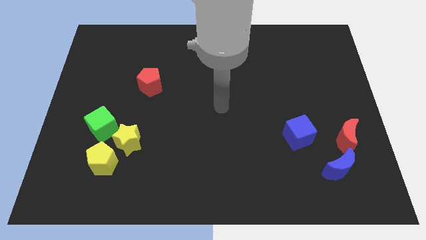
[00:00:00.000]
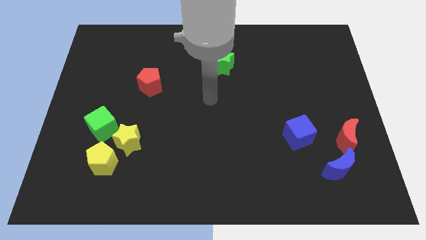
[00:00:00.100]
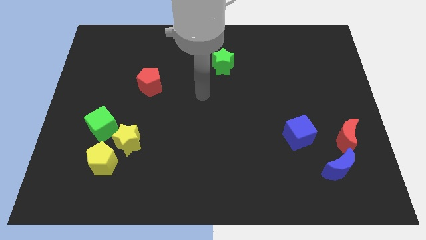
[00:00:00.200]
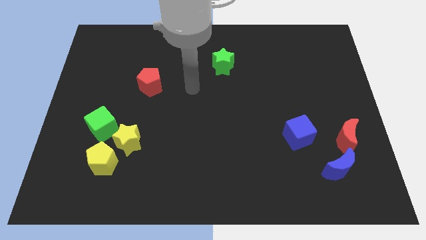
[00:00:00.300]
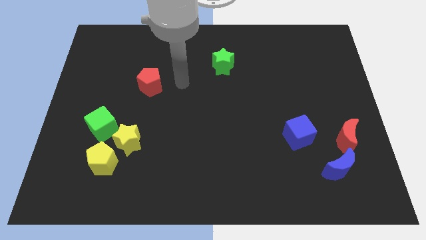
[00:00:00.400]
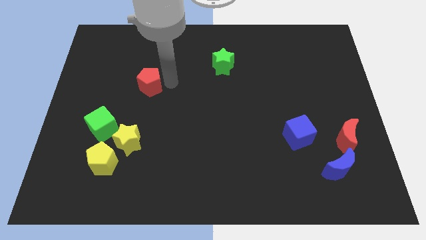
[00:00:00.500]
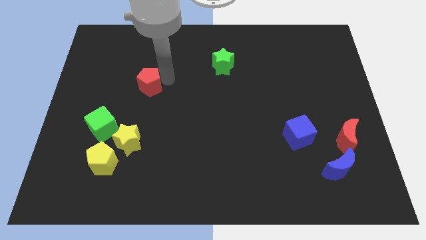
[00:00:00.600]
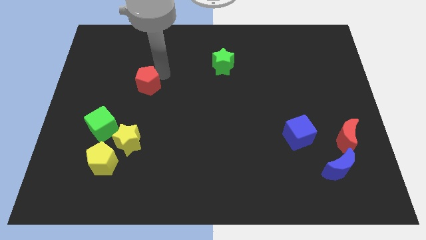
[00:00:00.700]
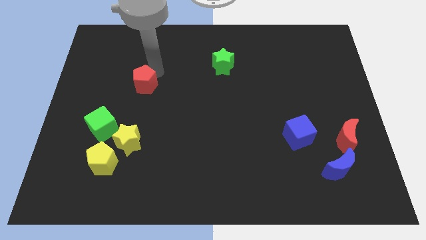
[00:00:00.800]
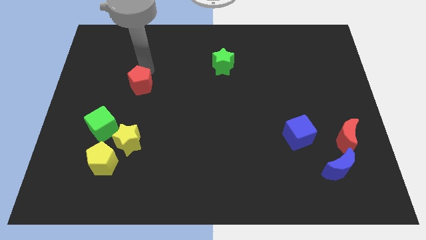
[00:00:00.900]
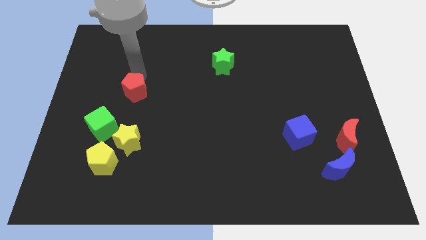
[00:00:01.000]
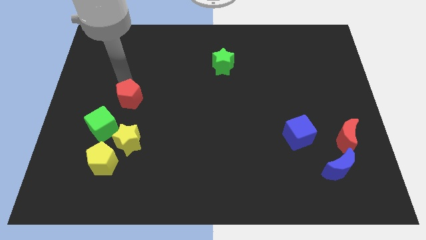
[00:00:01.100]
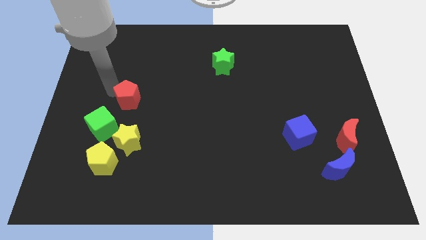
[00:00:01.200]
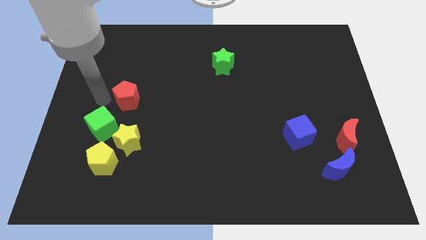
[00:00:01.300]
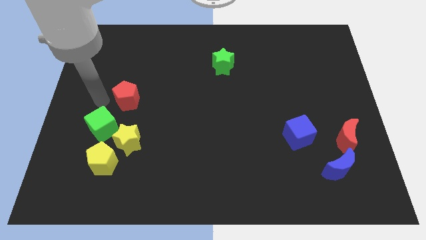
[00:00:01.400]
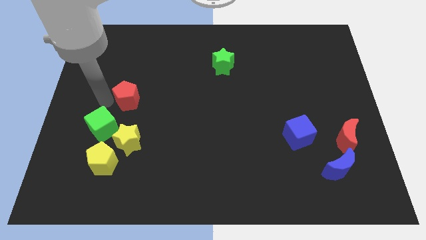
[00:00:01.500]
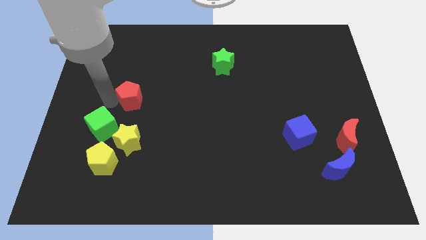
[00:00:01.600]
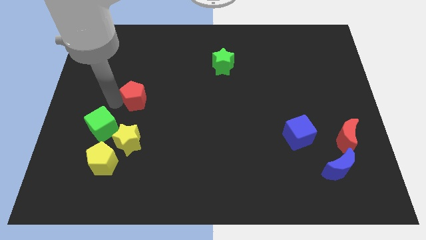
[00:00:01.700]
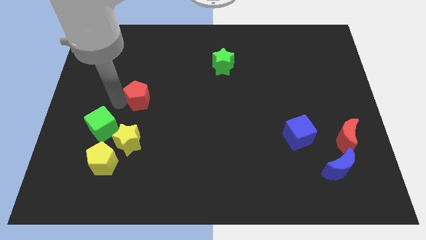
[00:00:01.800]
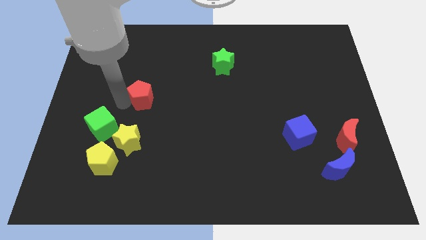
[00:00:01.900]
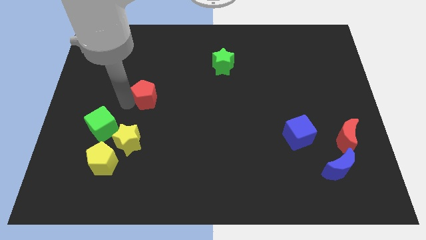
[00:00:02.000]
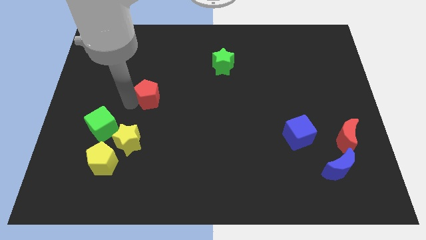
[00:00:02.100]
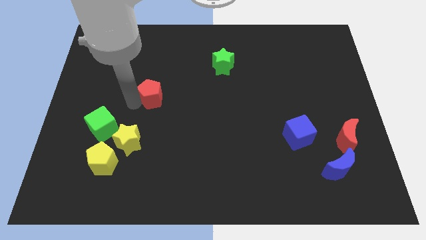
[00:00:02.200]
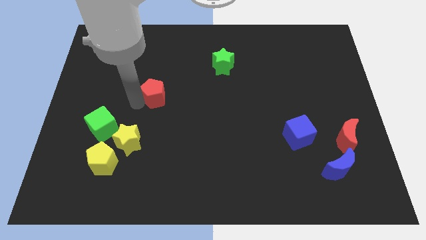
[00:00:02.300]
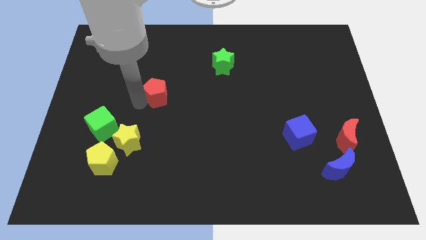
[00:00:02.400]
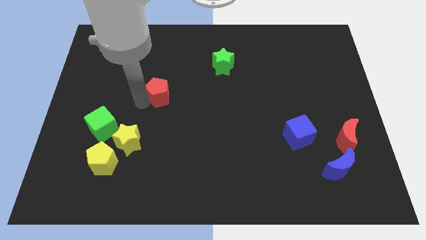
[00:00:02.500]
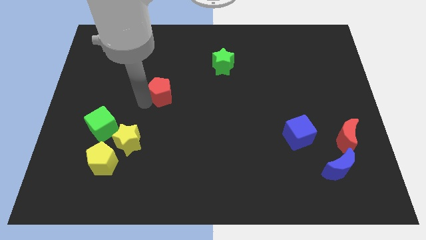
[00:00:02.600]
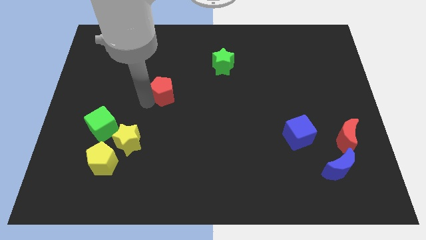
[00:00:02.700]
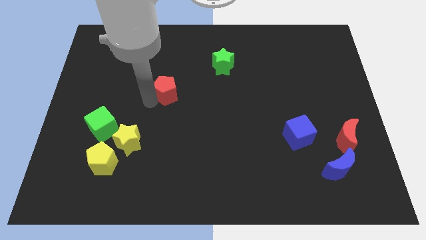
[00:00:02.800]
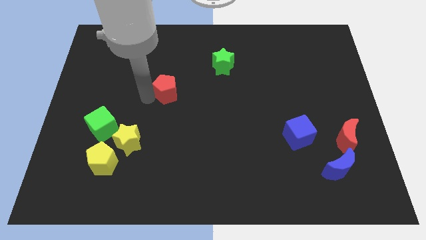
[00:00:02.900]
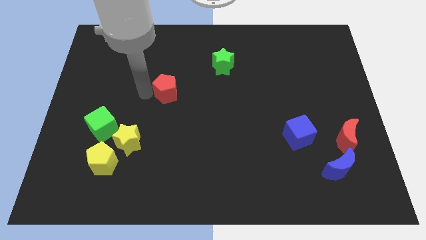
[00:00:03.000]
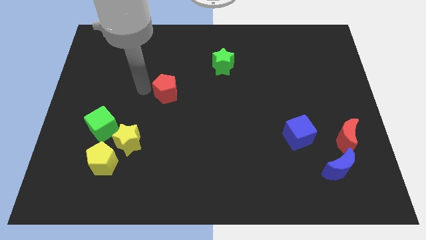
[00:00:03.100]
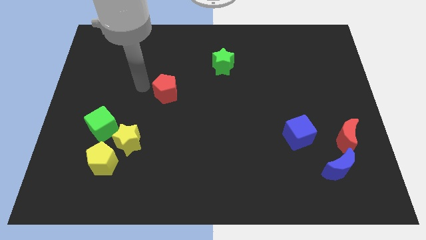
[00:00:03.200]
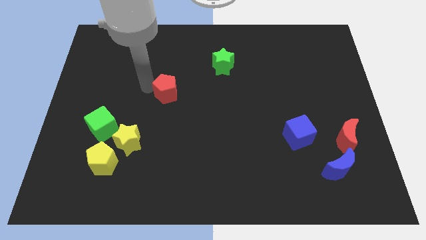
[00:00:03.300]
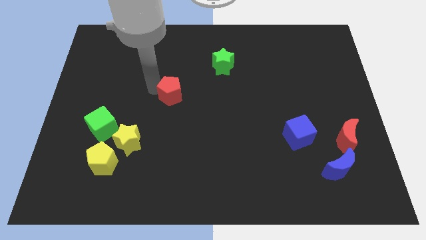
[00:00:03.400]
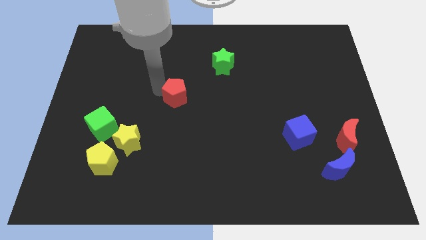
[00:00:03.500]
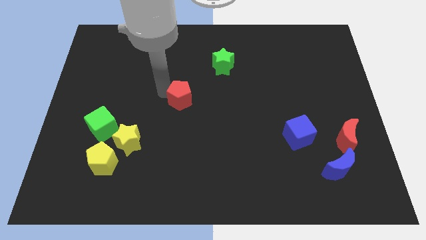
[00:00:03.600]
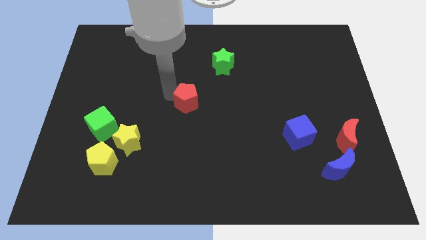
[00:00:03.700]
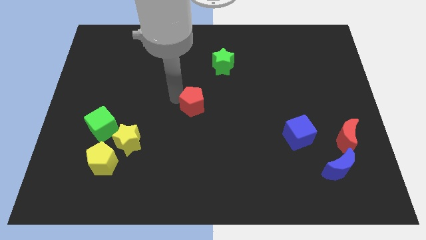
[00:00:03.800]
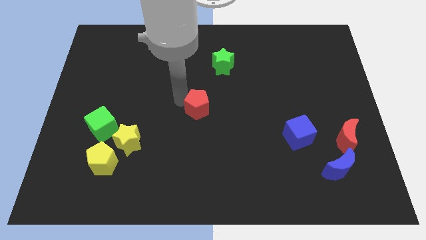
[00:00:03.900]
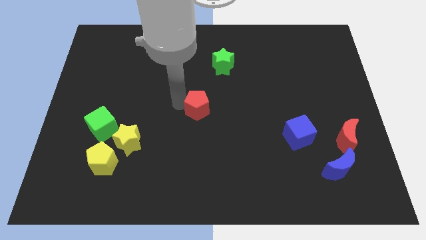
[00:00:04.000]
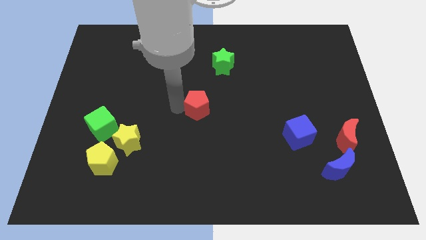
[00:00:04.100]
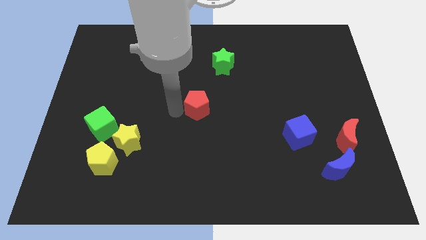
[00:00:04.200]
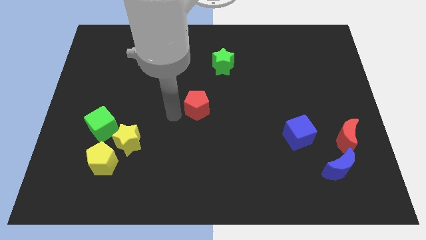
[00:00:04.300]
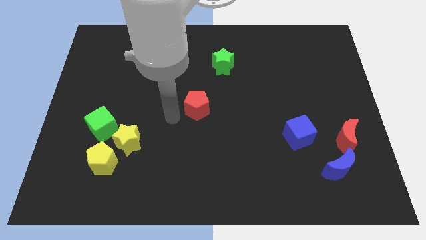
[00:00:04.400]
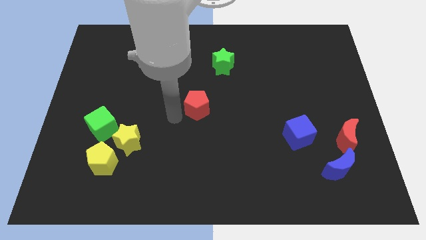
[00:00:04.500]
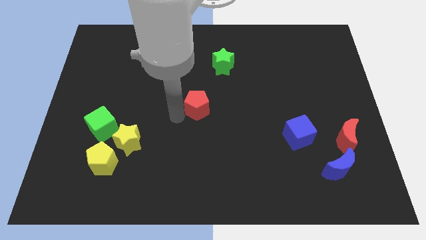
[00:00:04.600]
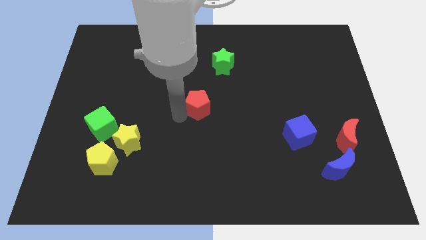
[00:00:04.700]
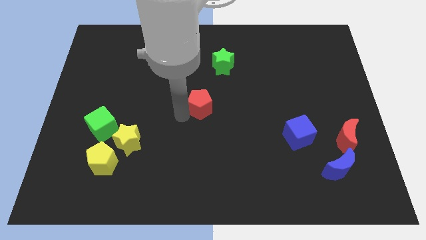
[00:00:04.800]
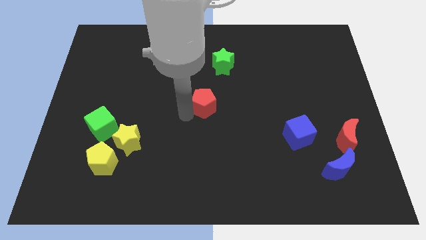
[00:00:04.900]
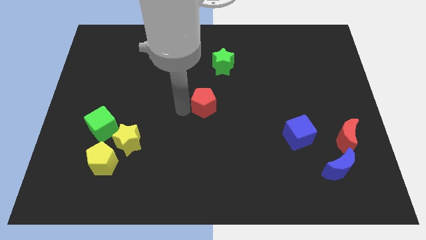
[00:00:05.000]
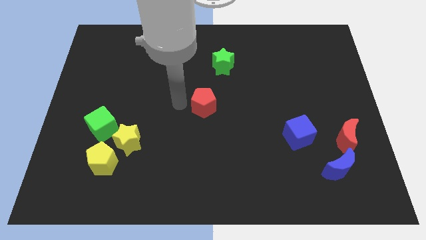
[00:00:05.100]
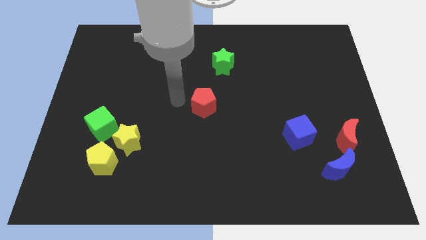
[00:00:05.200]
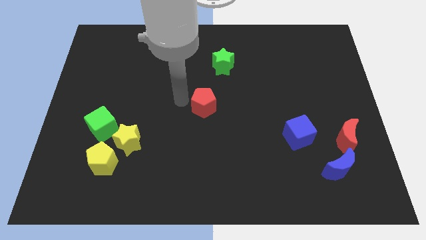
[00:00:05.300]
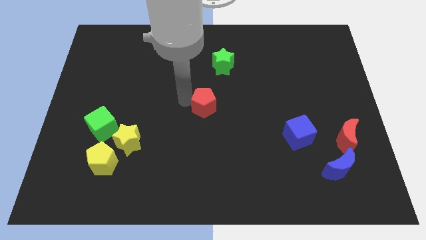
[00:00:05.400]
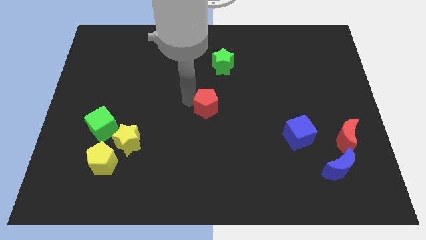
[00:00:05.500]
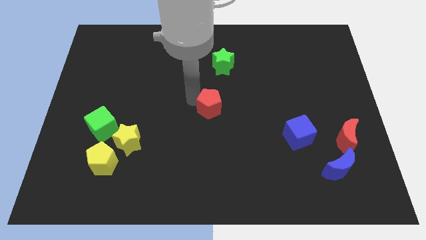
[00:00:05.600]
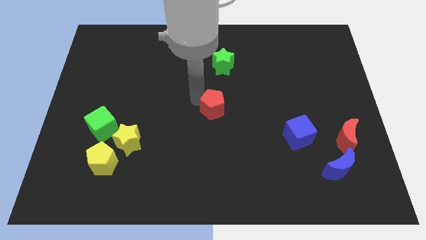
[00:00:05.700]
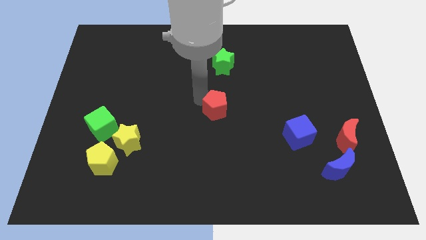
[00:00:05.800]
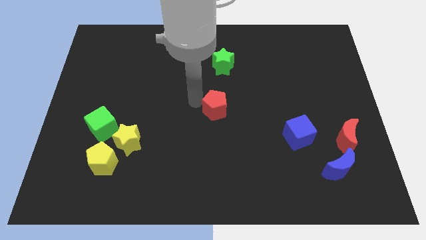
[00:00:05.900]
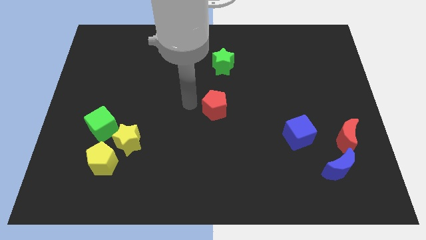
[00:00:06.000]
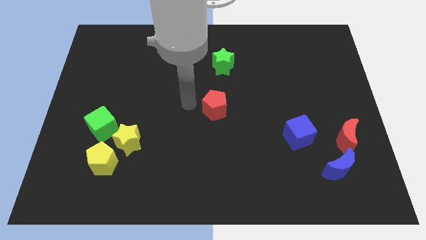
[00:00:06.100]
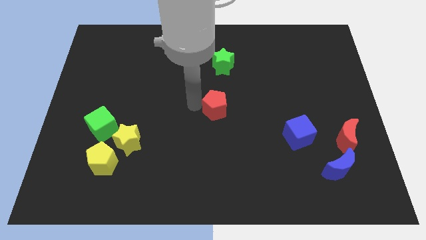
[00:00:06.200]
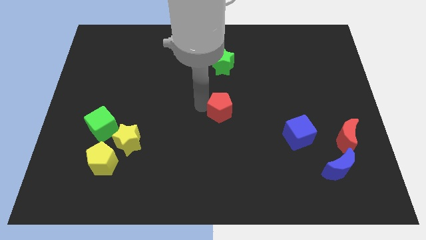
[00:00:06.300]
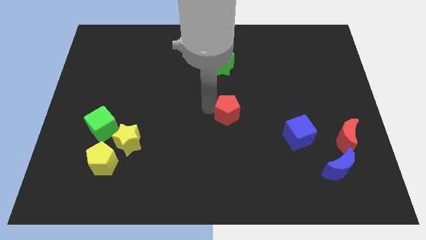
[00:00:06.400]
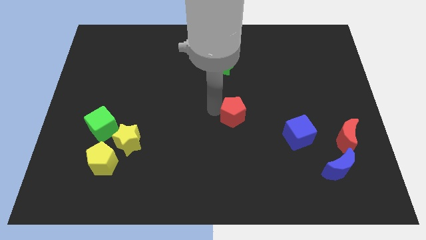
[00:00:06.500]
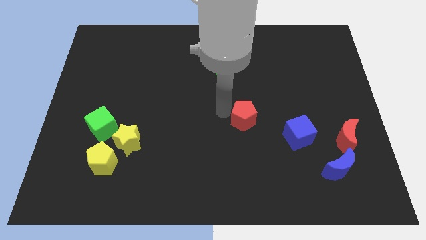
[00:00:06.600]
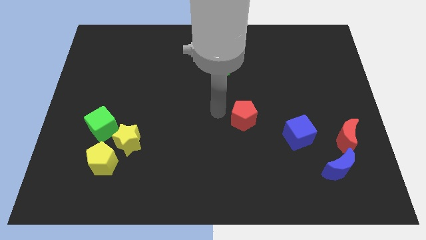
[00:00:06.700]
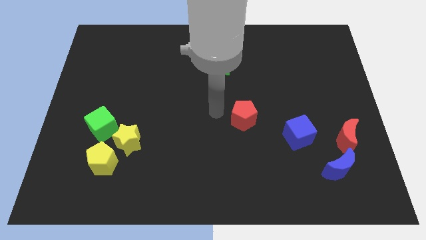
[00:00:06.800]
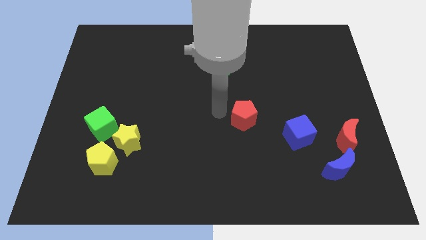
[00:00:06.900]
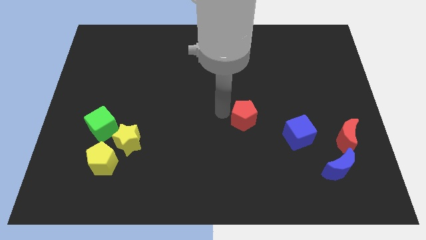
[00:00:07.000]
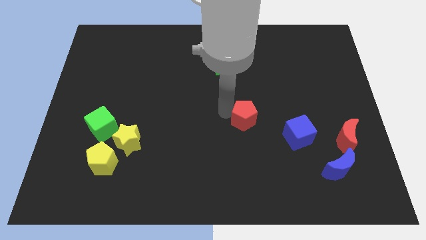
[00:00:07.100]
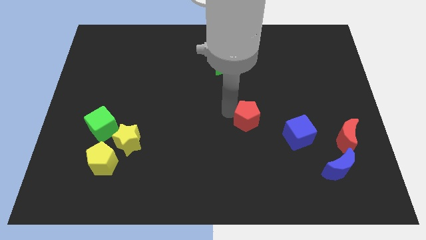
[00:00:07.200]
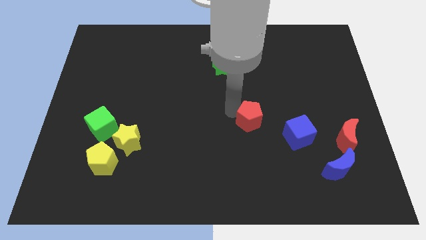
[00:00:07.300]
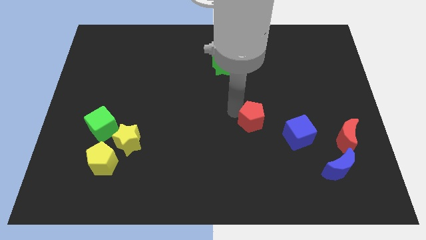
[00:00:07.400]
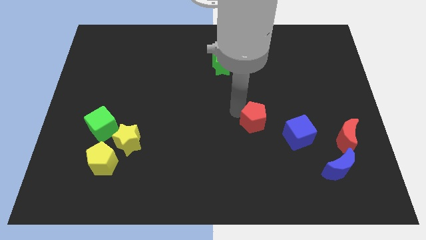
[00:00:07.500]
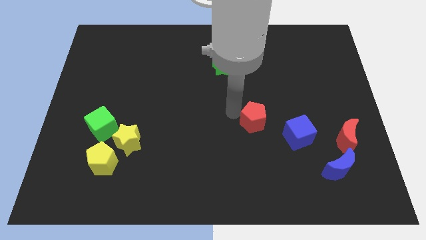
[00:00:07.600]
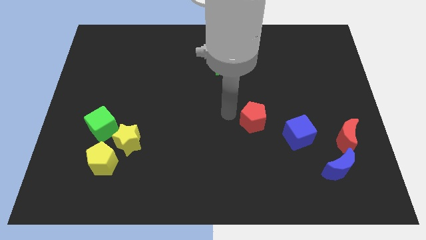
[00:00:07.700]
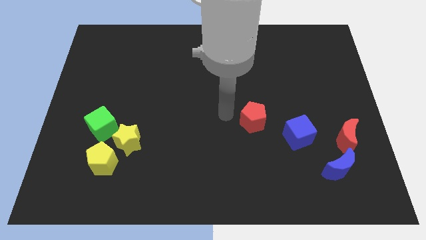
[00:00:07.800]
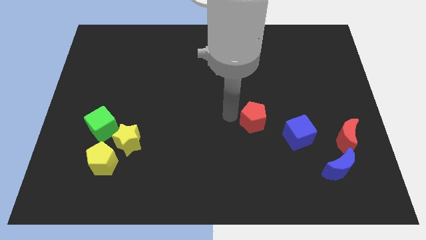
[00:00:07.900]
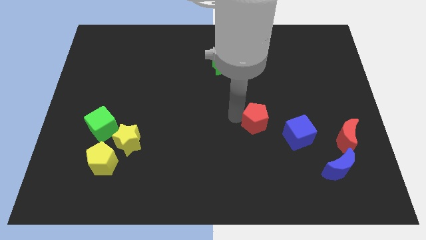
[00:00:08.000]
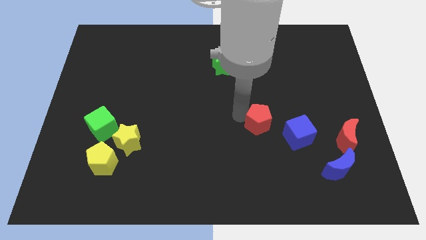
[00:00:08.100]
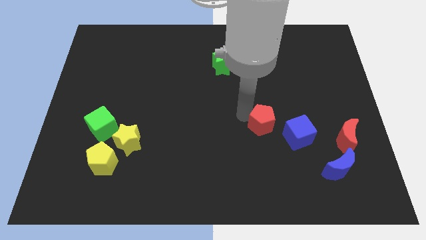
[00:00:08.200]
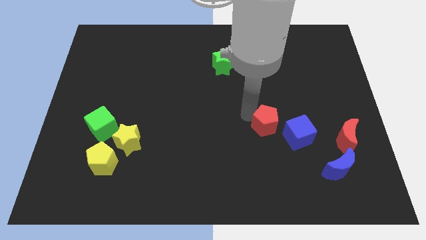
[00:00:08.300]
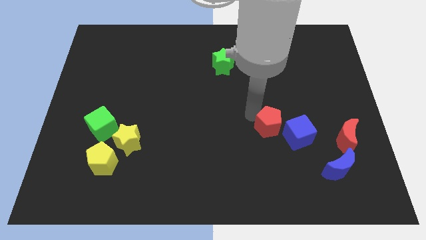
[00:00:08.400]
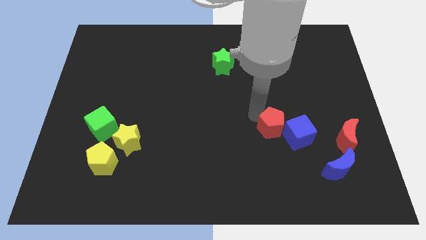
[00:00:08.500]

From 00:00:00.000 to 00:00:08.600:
slide the red pentagon close to the blue cube
